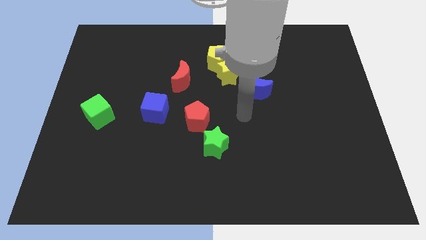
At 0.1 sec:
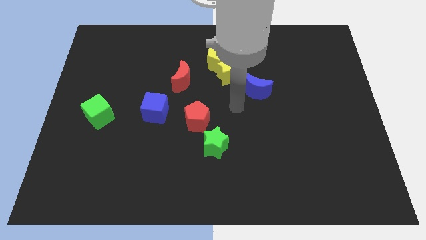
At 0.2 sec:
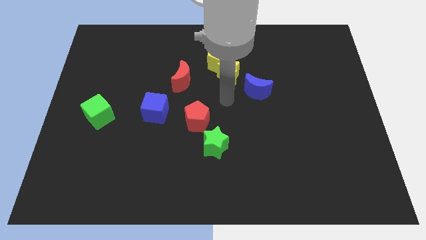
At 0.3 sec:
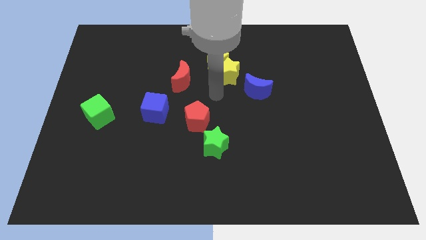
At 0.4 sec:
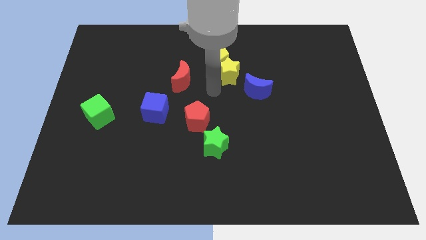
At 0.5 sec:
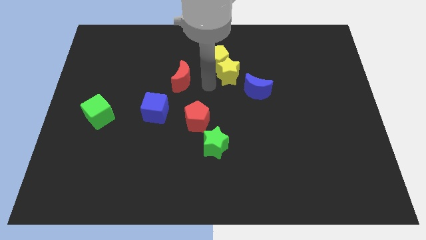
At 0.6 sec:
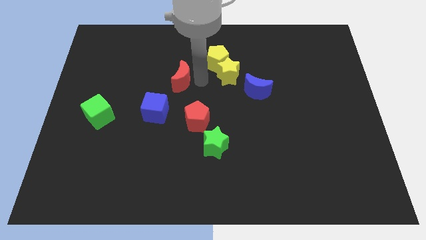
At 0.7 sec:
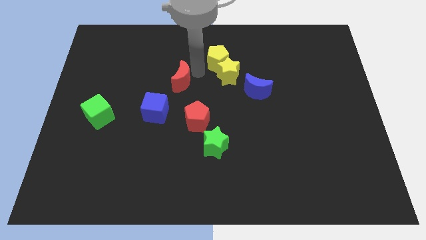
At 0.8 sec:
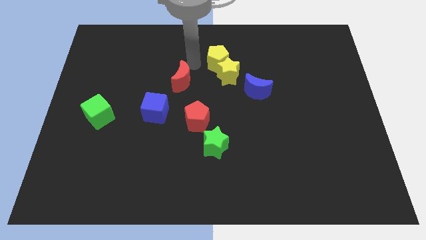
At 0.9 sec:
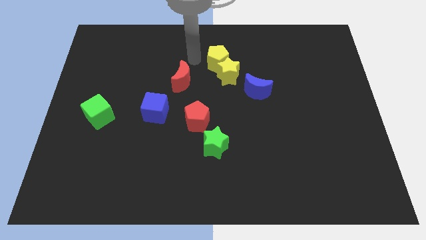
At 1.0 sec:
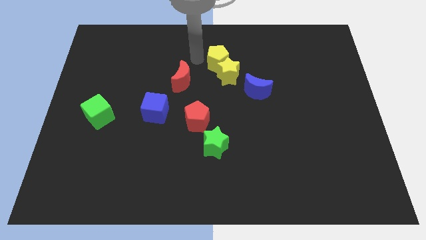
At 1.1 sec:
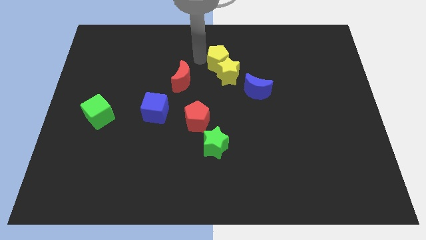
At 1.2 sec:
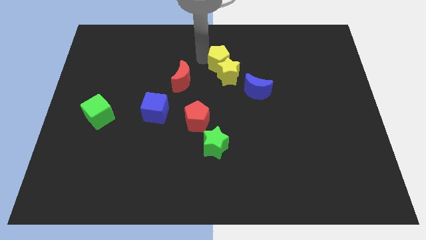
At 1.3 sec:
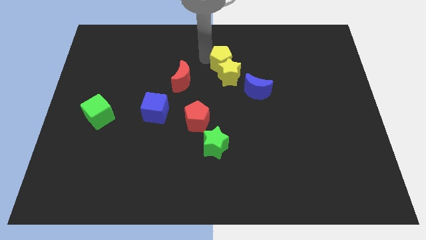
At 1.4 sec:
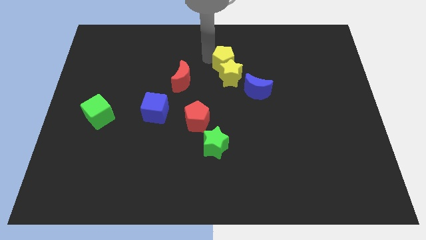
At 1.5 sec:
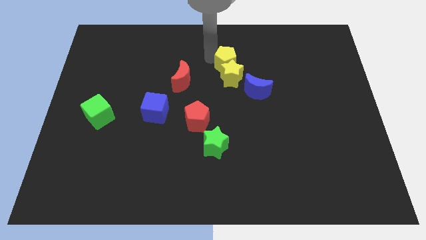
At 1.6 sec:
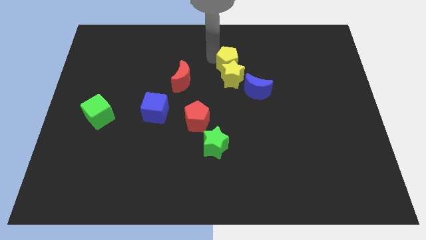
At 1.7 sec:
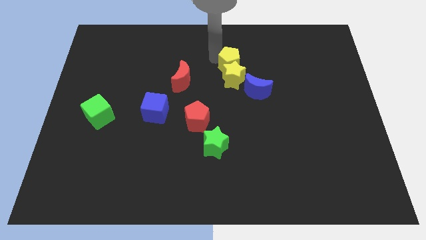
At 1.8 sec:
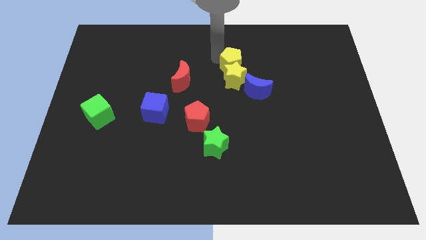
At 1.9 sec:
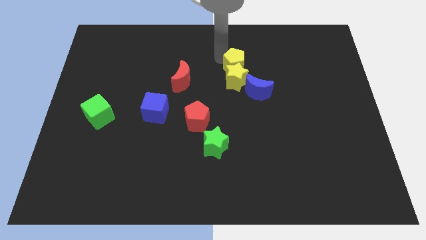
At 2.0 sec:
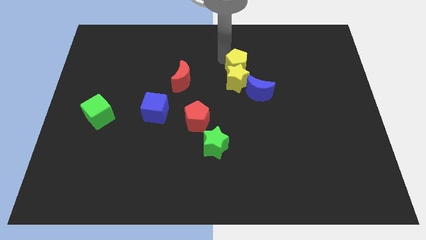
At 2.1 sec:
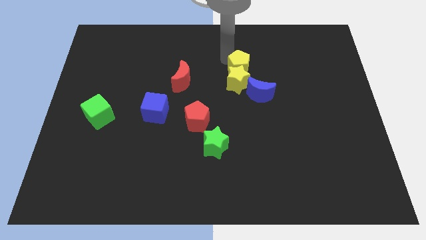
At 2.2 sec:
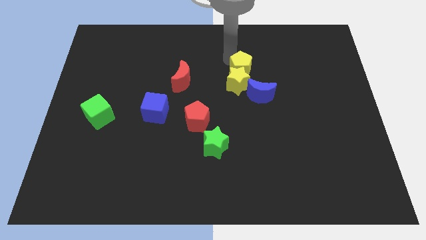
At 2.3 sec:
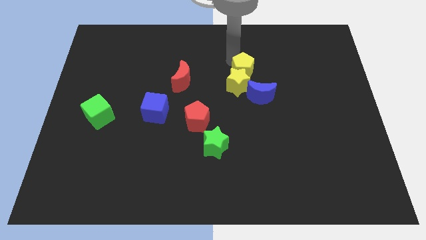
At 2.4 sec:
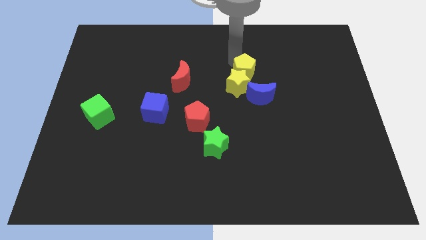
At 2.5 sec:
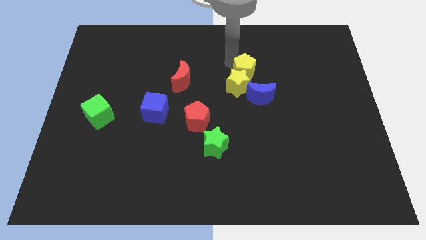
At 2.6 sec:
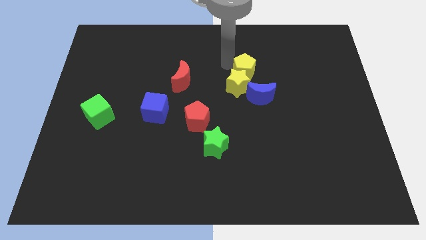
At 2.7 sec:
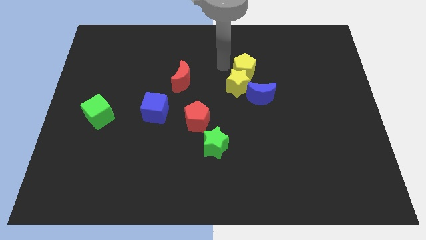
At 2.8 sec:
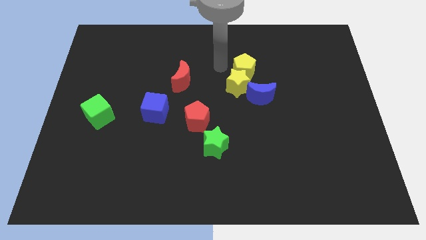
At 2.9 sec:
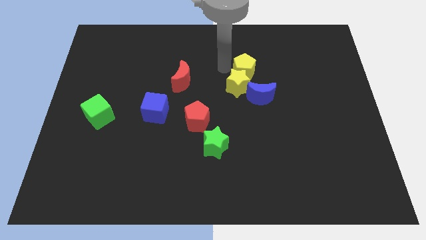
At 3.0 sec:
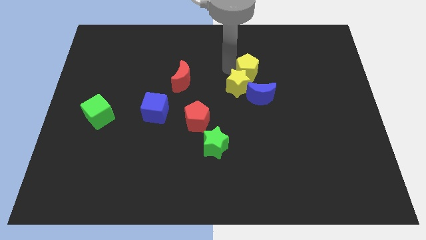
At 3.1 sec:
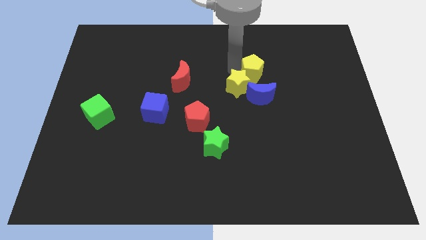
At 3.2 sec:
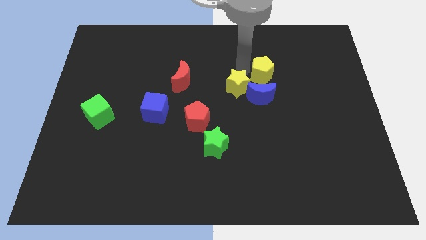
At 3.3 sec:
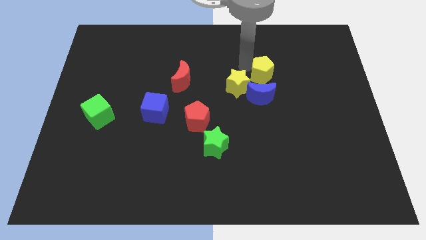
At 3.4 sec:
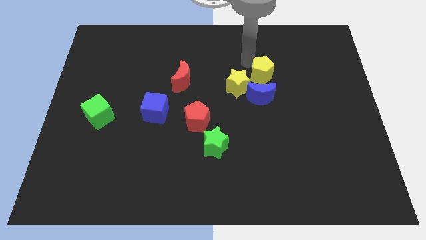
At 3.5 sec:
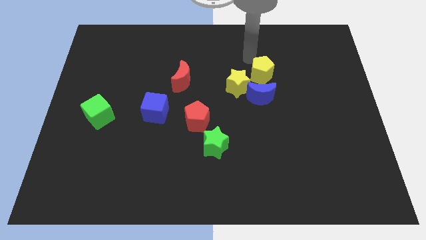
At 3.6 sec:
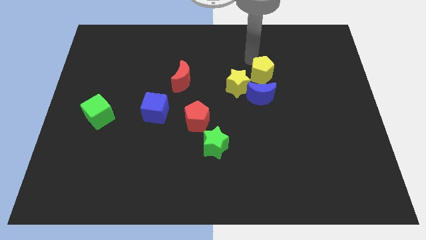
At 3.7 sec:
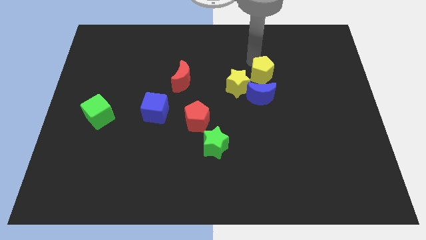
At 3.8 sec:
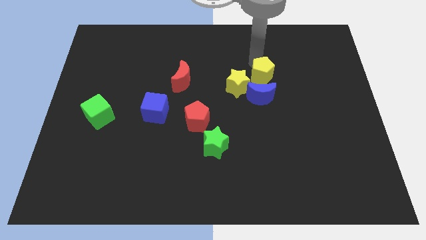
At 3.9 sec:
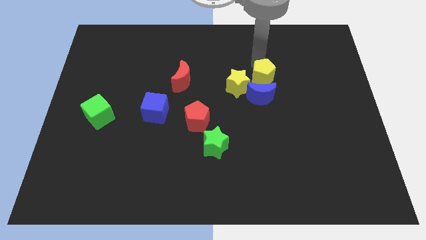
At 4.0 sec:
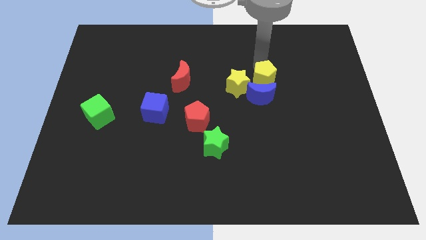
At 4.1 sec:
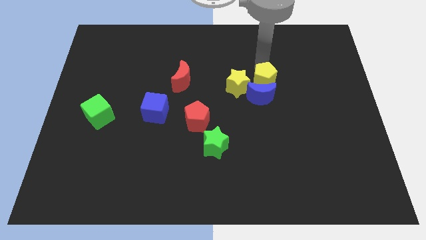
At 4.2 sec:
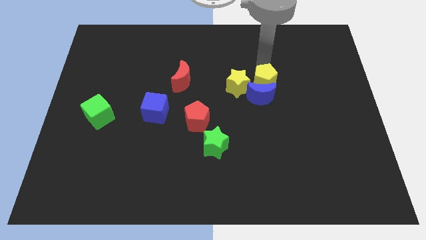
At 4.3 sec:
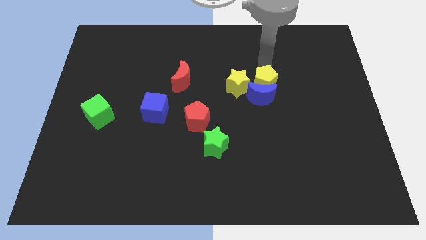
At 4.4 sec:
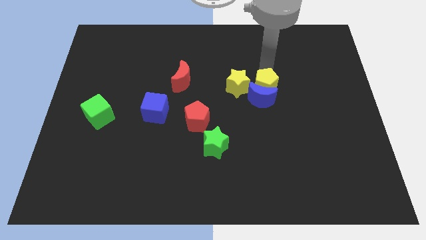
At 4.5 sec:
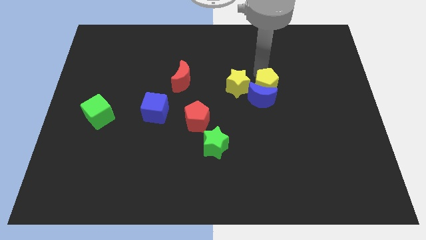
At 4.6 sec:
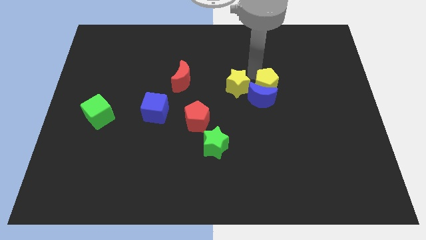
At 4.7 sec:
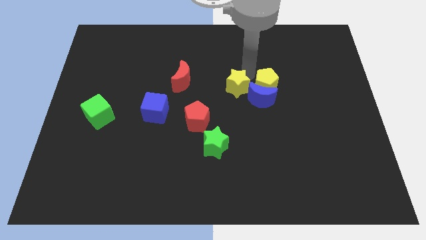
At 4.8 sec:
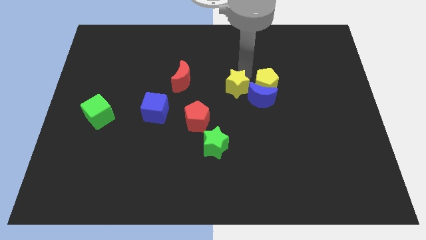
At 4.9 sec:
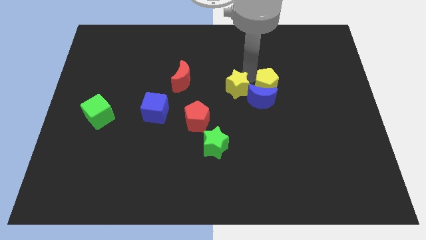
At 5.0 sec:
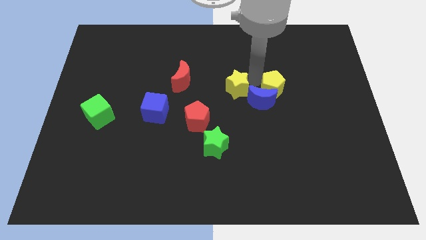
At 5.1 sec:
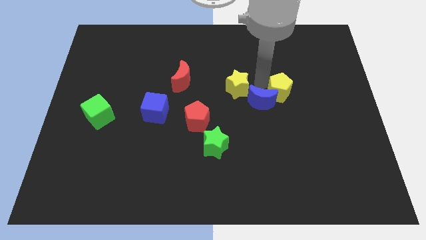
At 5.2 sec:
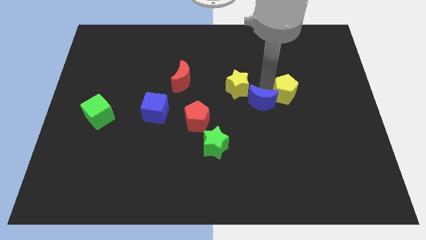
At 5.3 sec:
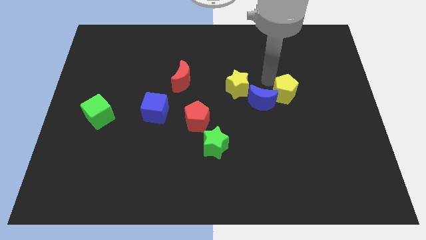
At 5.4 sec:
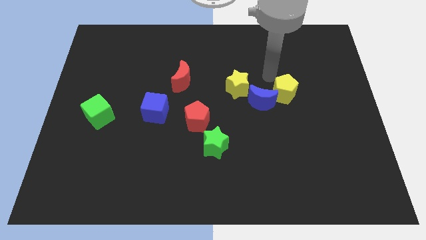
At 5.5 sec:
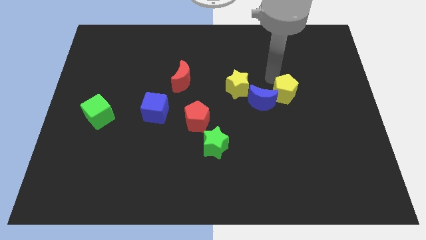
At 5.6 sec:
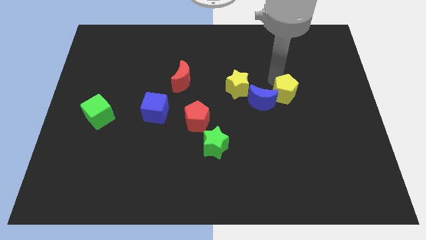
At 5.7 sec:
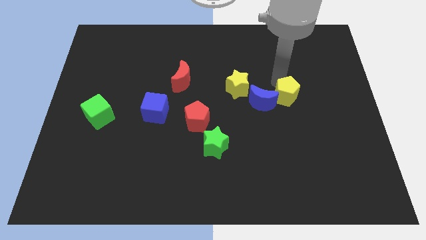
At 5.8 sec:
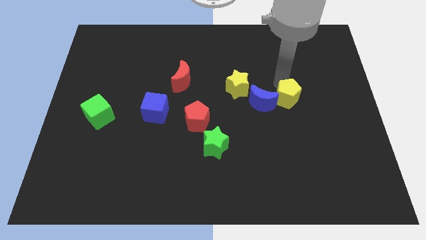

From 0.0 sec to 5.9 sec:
push the yellow pentagon downwards and to the right

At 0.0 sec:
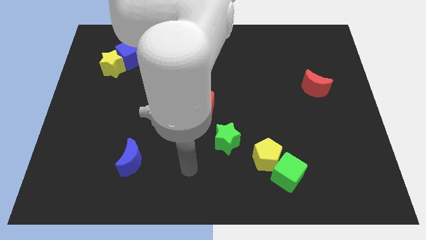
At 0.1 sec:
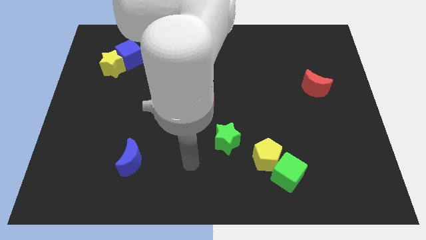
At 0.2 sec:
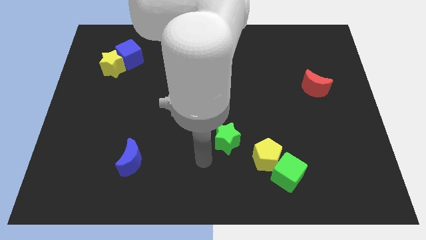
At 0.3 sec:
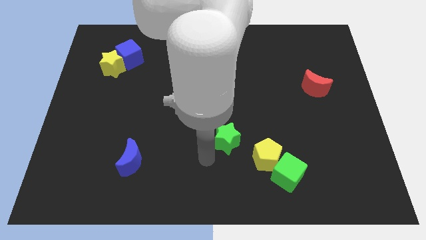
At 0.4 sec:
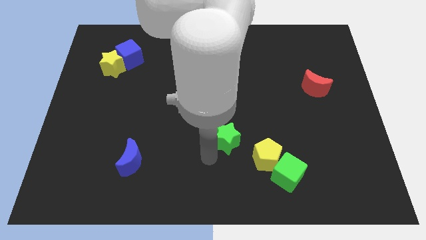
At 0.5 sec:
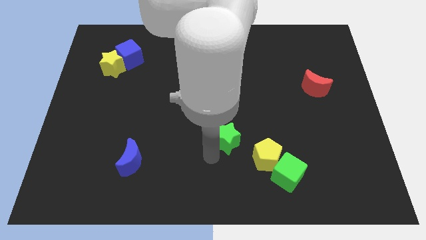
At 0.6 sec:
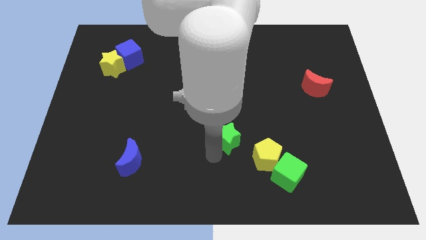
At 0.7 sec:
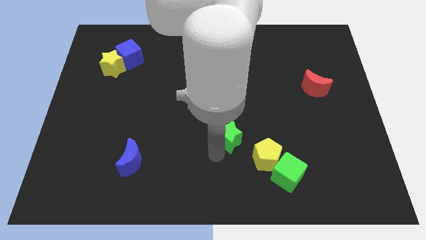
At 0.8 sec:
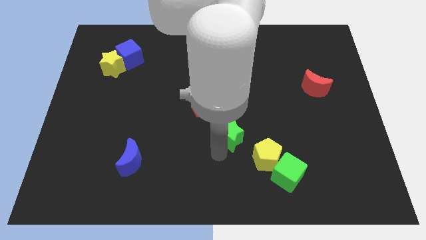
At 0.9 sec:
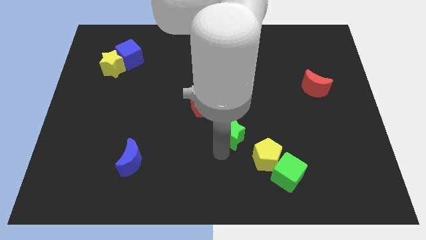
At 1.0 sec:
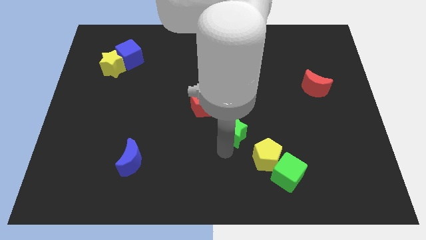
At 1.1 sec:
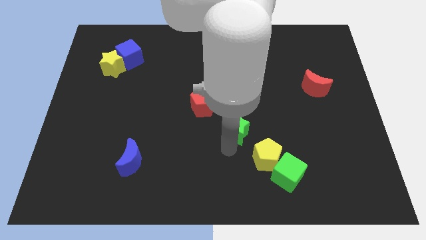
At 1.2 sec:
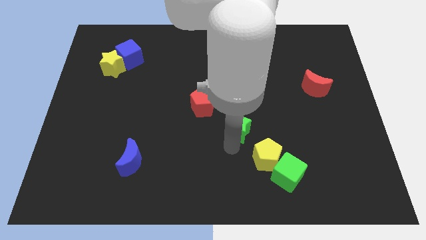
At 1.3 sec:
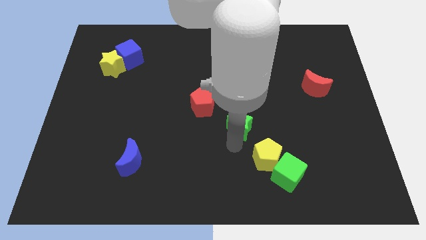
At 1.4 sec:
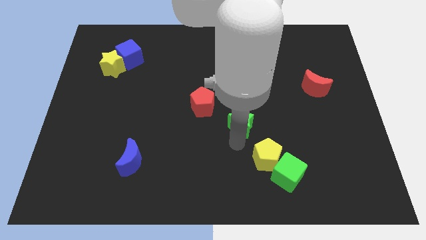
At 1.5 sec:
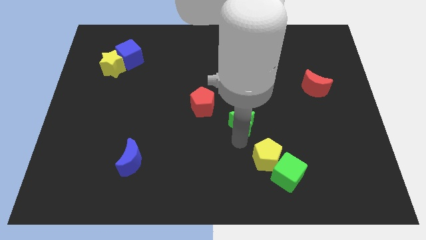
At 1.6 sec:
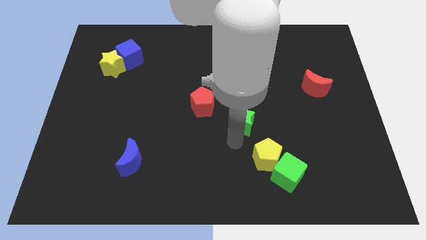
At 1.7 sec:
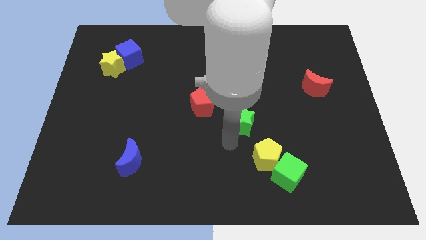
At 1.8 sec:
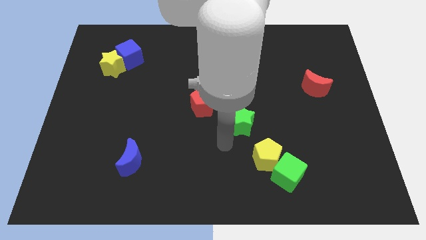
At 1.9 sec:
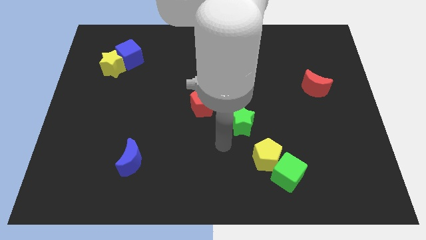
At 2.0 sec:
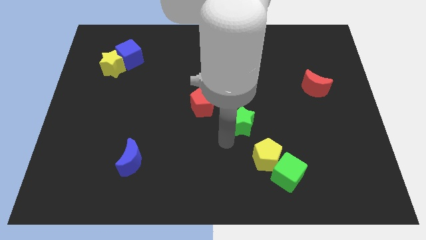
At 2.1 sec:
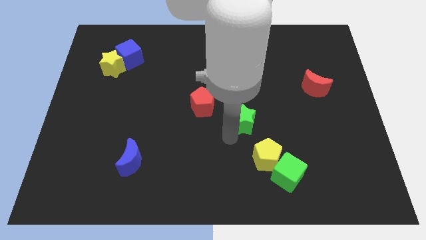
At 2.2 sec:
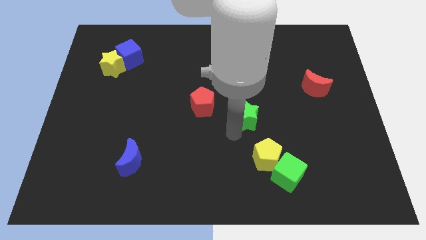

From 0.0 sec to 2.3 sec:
move the green star slightly diagonally upwards and right
